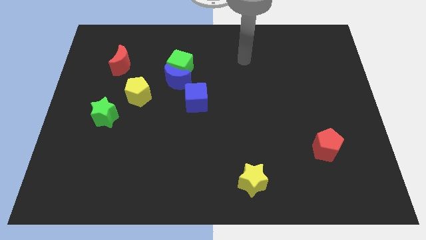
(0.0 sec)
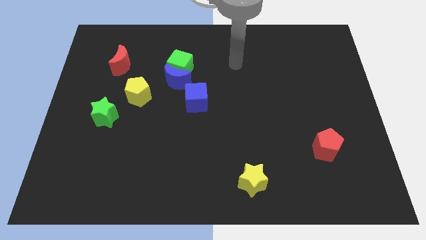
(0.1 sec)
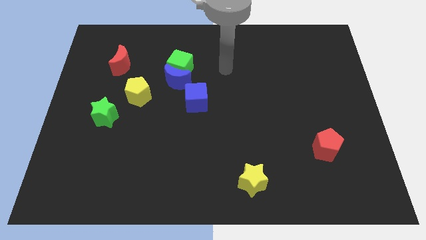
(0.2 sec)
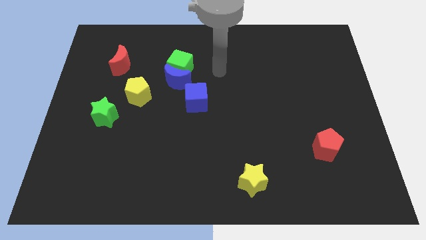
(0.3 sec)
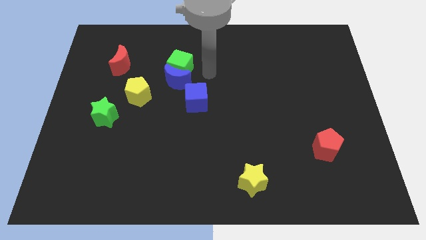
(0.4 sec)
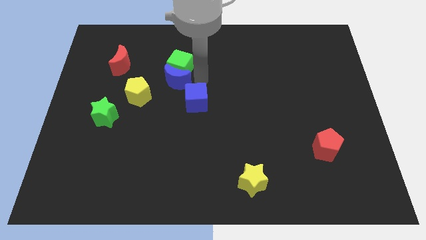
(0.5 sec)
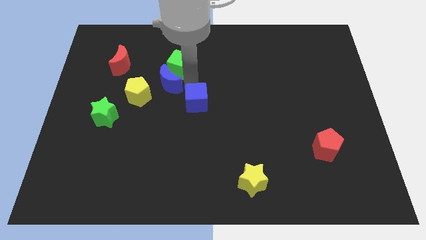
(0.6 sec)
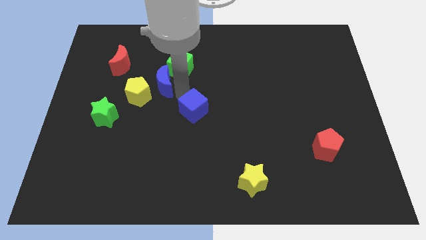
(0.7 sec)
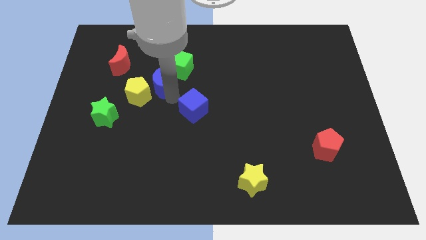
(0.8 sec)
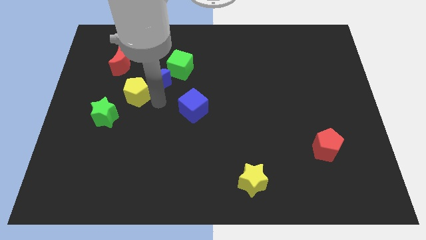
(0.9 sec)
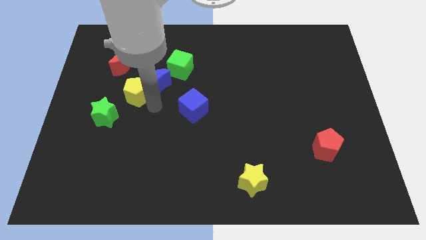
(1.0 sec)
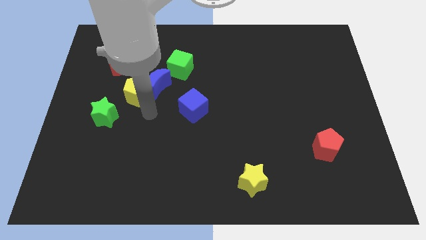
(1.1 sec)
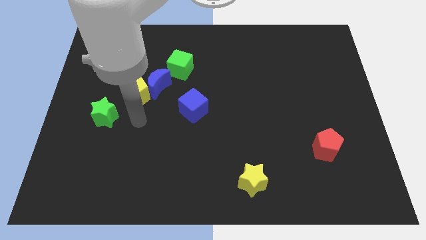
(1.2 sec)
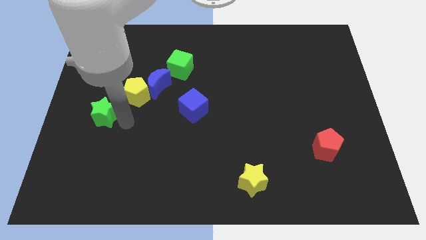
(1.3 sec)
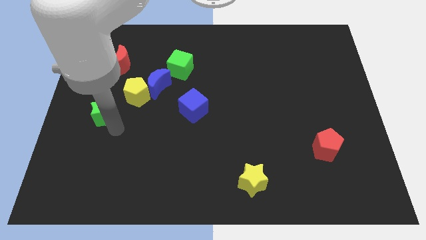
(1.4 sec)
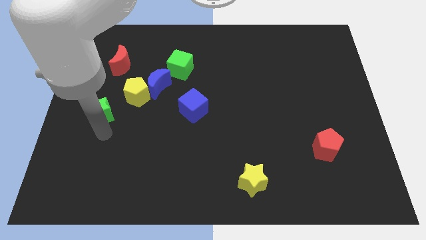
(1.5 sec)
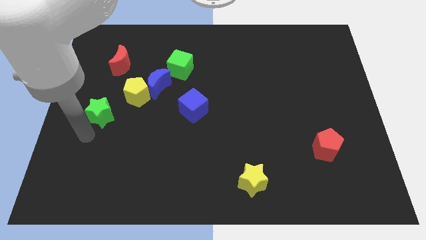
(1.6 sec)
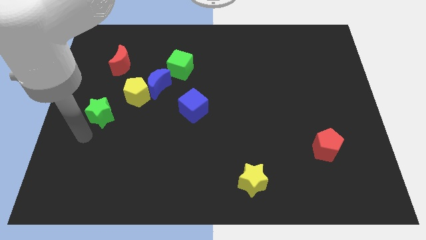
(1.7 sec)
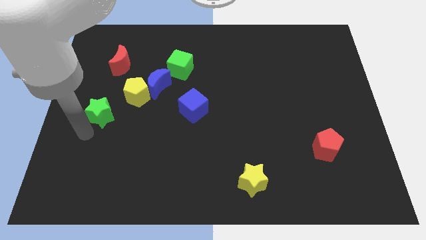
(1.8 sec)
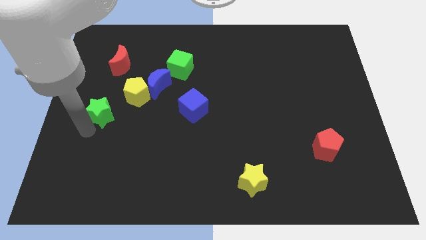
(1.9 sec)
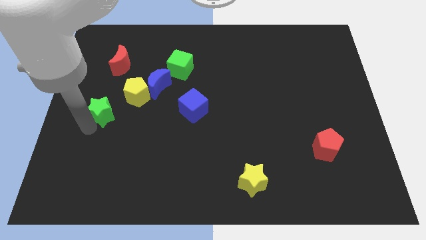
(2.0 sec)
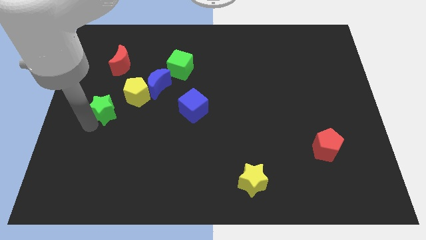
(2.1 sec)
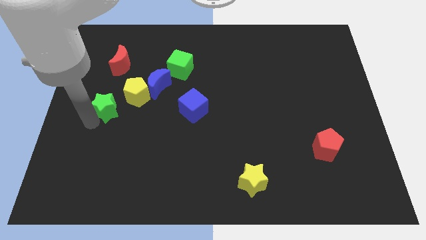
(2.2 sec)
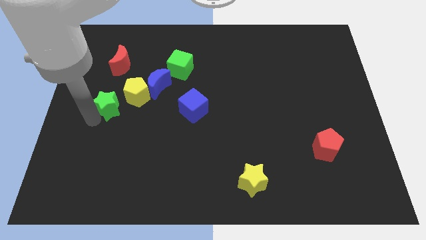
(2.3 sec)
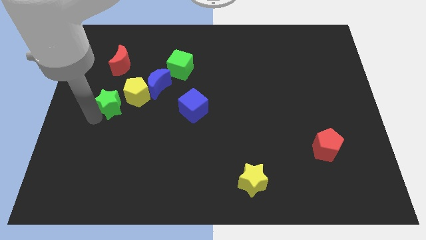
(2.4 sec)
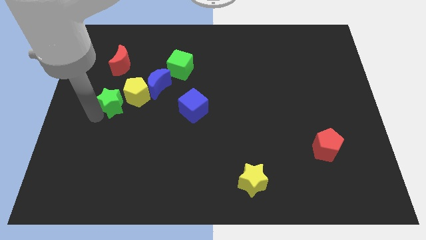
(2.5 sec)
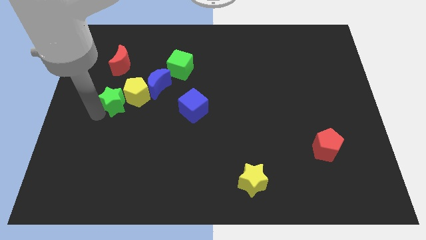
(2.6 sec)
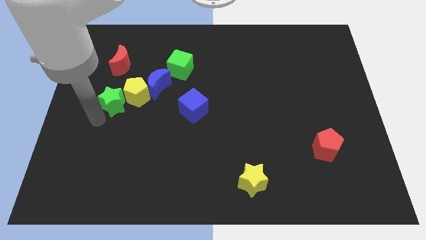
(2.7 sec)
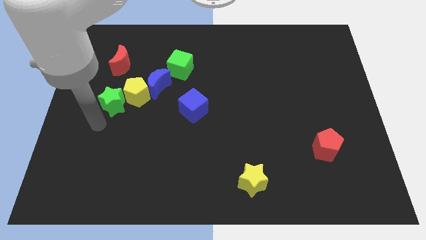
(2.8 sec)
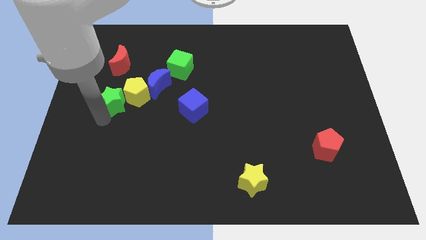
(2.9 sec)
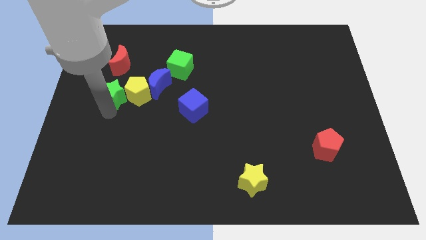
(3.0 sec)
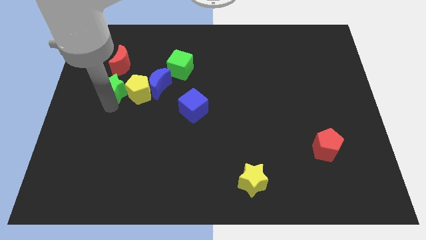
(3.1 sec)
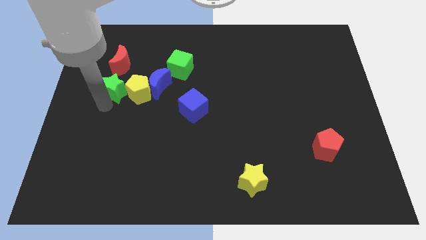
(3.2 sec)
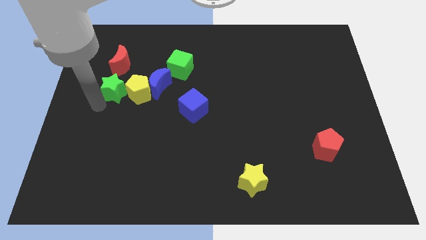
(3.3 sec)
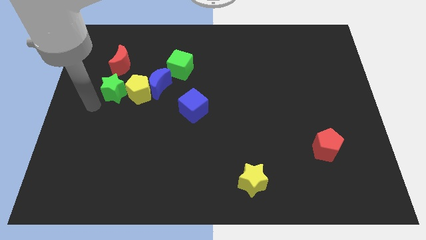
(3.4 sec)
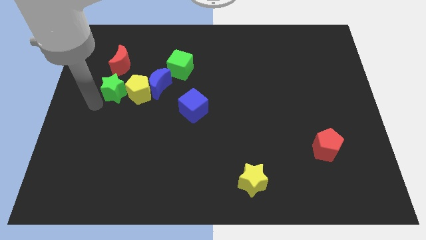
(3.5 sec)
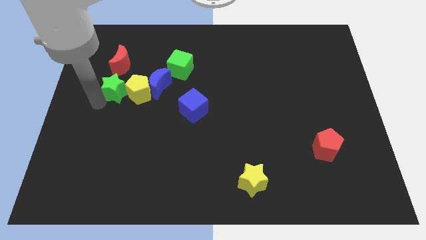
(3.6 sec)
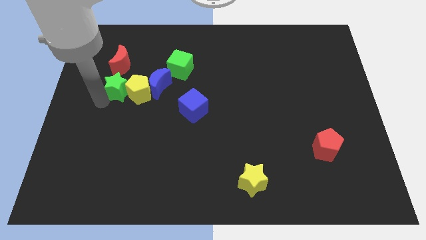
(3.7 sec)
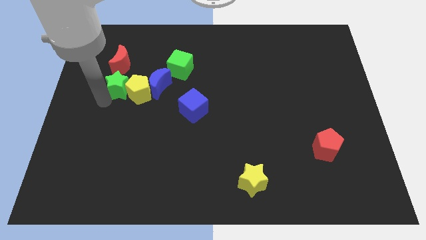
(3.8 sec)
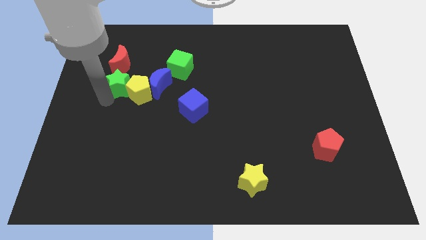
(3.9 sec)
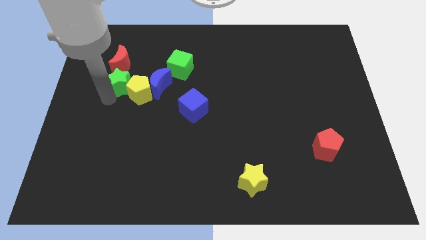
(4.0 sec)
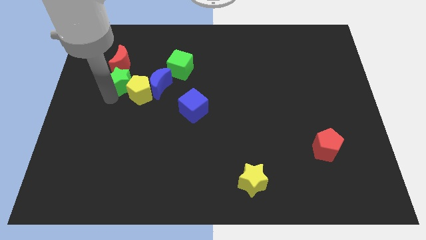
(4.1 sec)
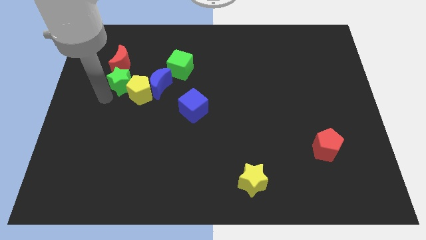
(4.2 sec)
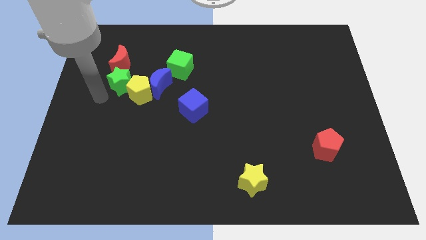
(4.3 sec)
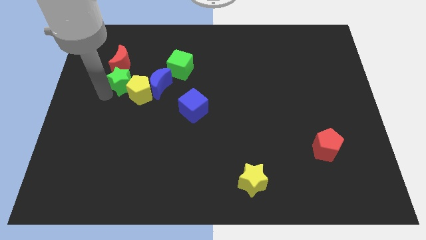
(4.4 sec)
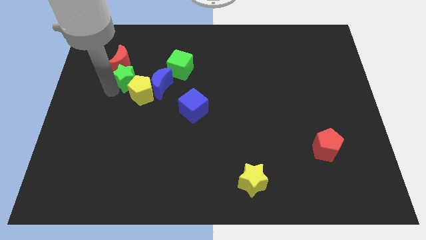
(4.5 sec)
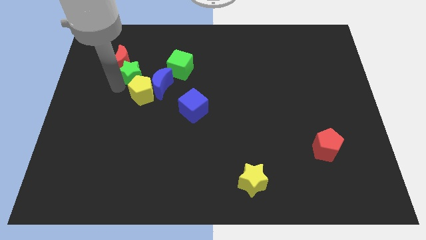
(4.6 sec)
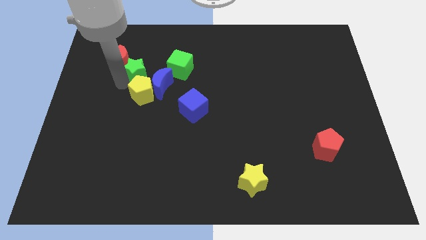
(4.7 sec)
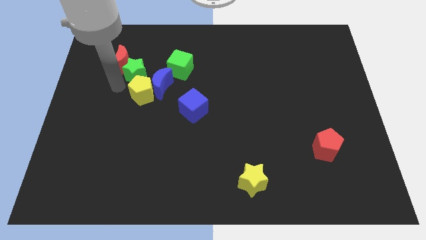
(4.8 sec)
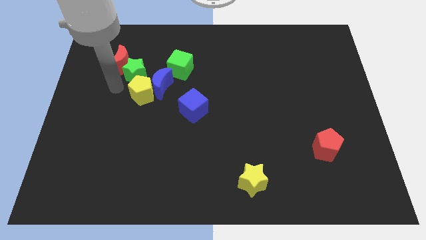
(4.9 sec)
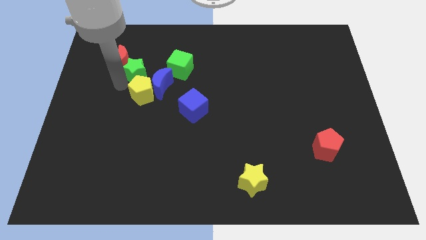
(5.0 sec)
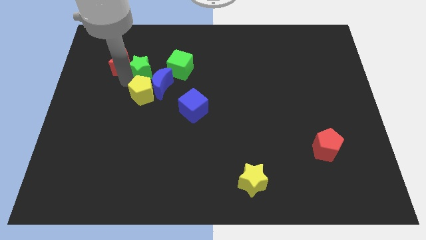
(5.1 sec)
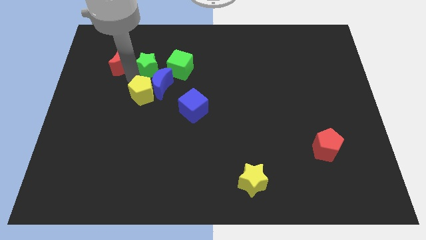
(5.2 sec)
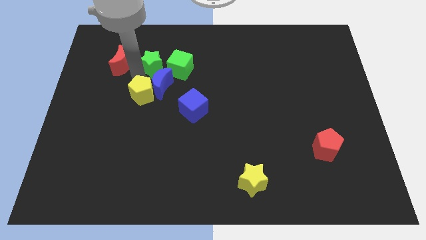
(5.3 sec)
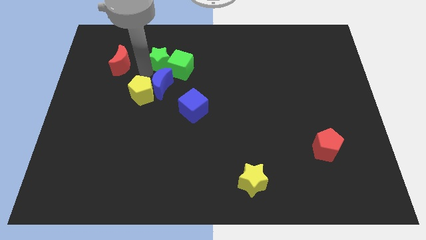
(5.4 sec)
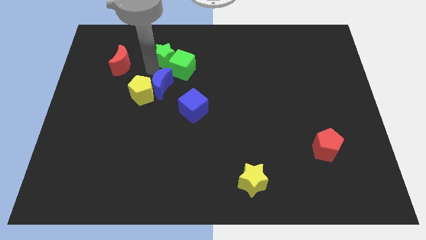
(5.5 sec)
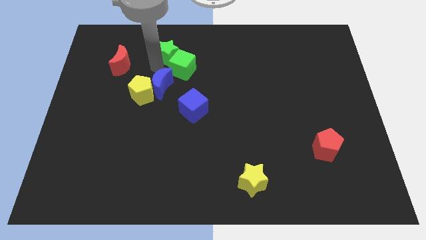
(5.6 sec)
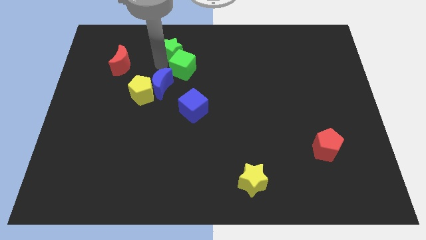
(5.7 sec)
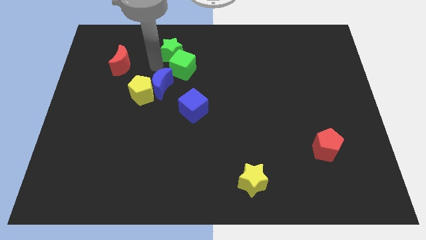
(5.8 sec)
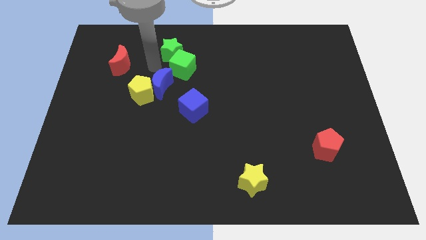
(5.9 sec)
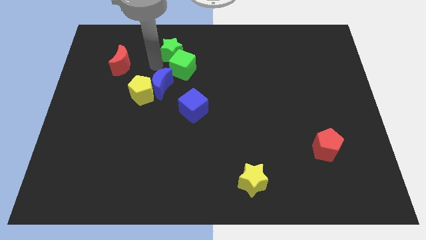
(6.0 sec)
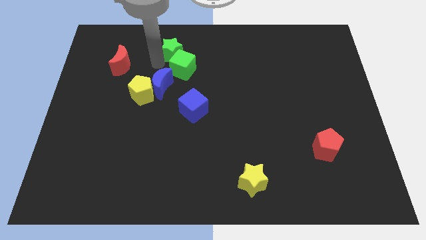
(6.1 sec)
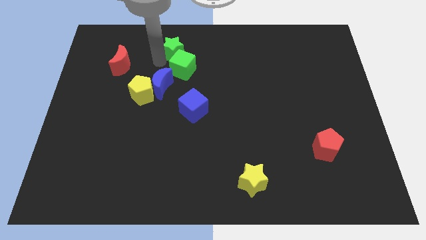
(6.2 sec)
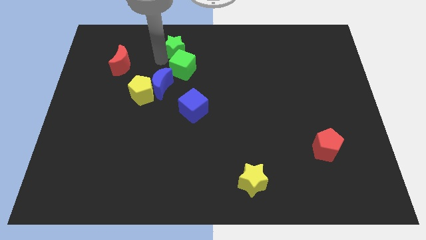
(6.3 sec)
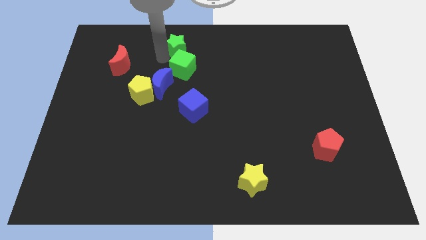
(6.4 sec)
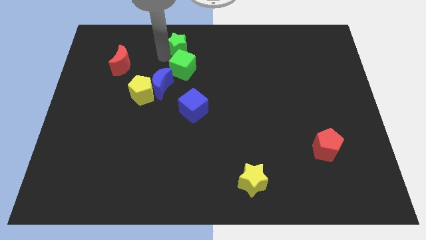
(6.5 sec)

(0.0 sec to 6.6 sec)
slide the green star to the top side
